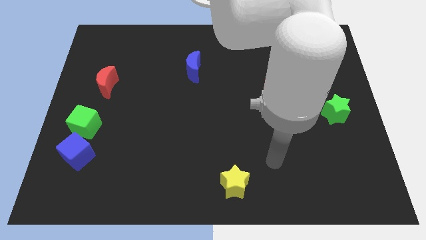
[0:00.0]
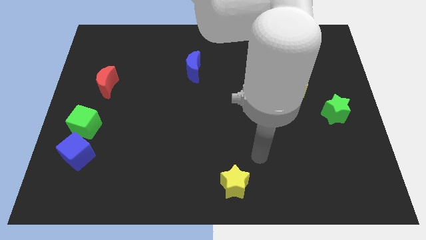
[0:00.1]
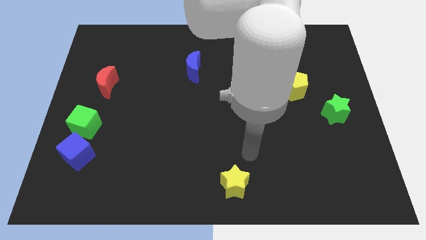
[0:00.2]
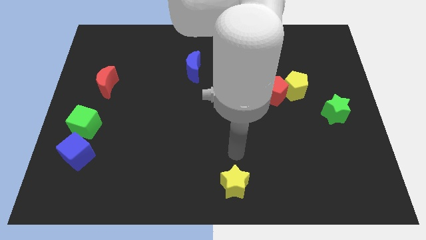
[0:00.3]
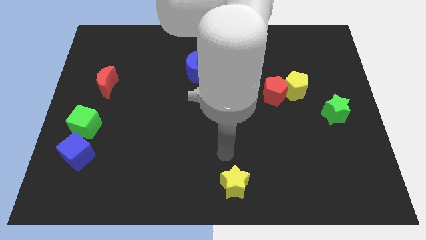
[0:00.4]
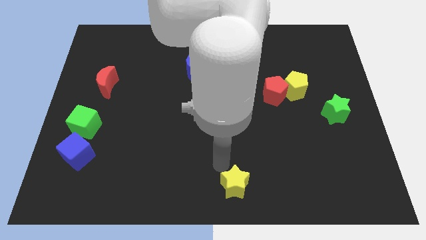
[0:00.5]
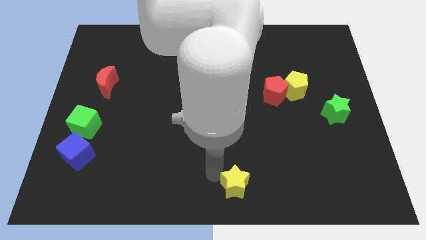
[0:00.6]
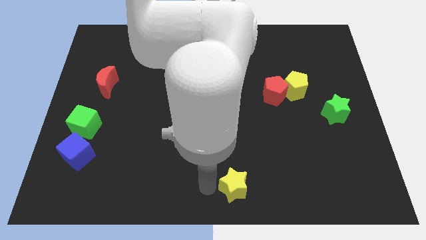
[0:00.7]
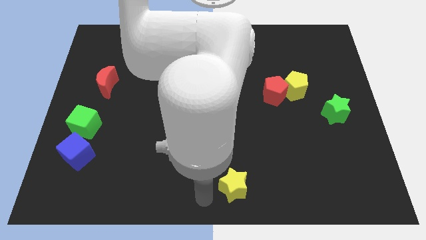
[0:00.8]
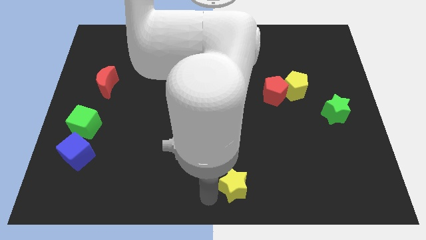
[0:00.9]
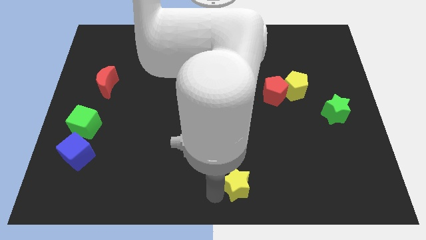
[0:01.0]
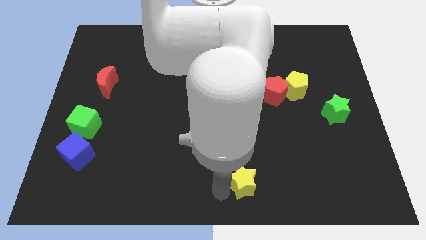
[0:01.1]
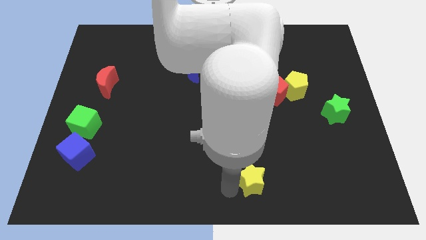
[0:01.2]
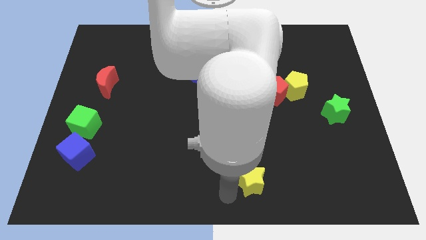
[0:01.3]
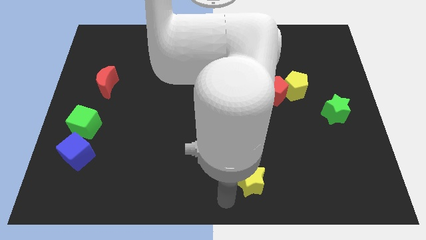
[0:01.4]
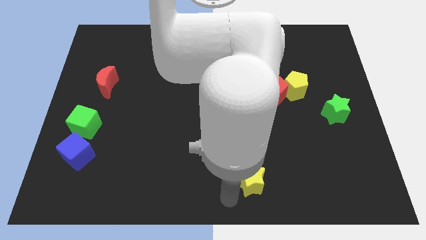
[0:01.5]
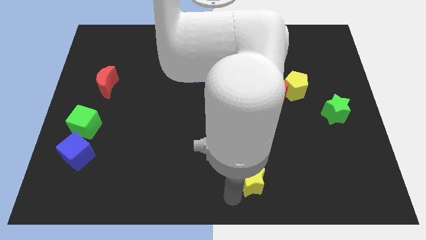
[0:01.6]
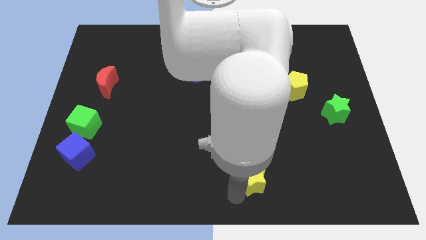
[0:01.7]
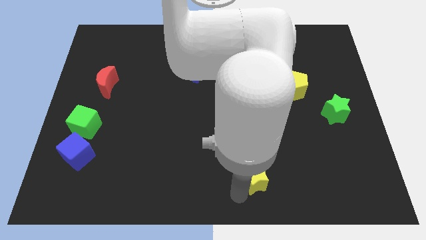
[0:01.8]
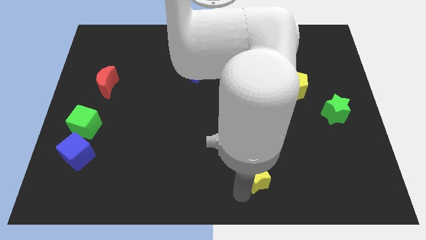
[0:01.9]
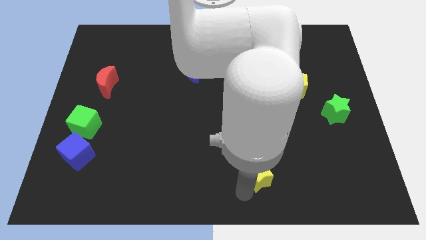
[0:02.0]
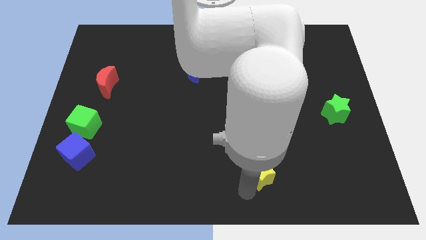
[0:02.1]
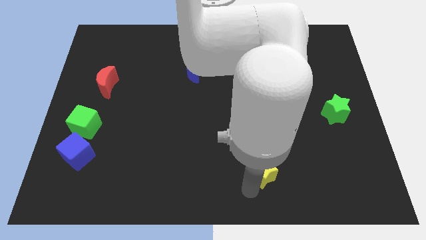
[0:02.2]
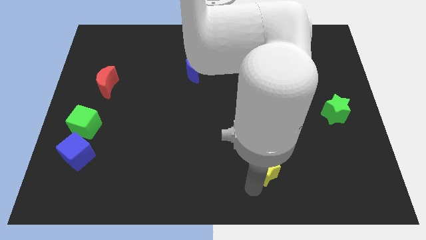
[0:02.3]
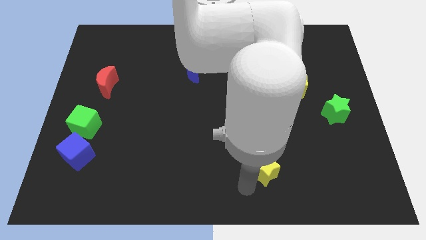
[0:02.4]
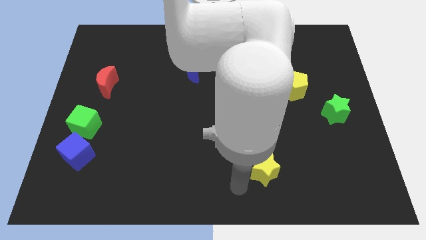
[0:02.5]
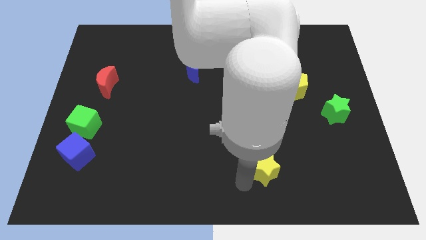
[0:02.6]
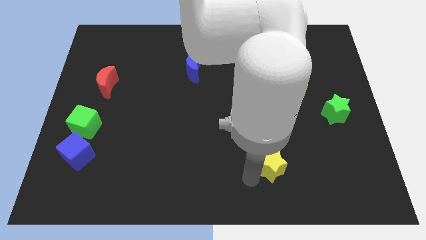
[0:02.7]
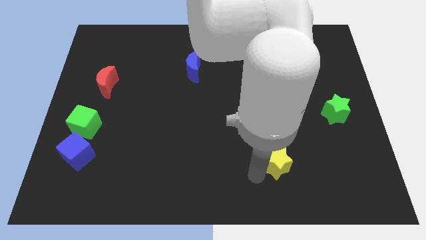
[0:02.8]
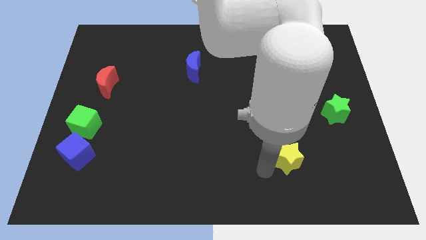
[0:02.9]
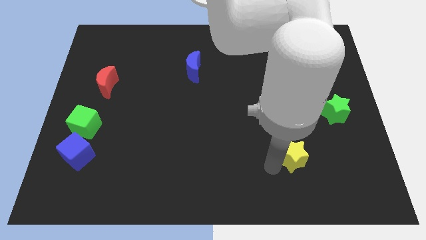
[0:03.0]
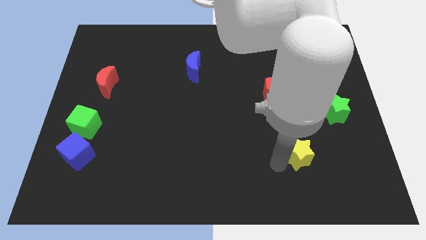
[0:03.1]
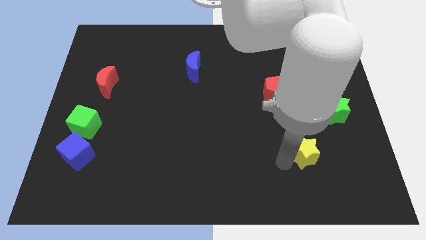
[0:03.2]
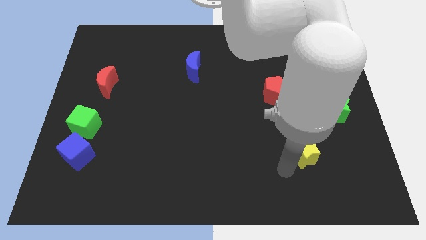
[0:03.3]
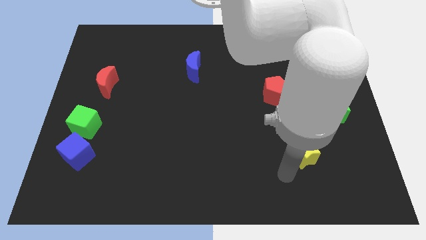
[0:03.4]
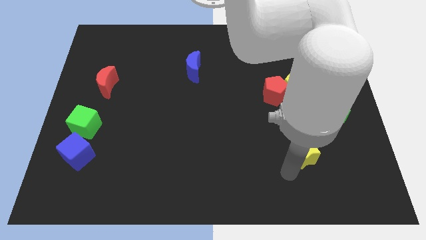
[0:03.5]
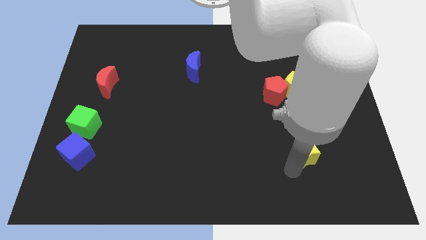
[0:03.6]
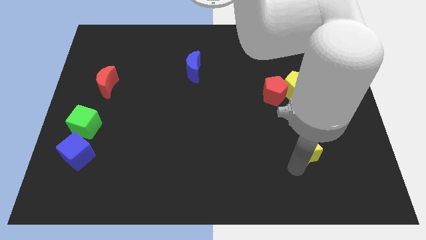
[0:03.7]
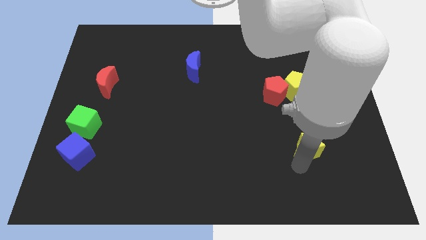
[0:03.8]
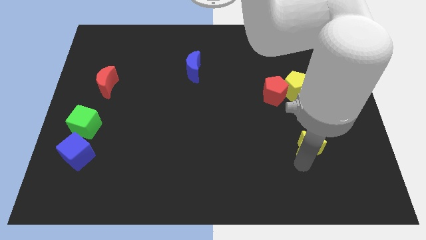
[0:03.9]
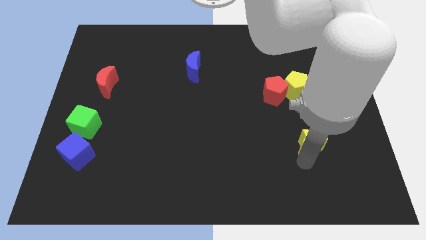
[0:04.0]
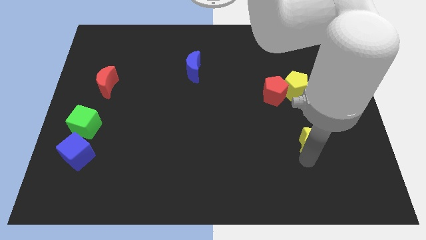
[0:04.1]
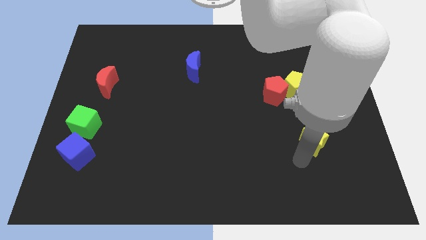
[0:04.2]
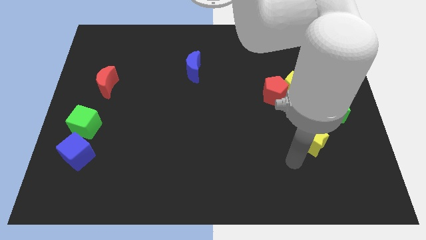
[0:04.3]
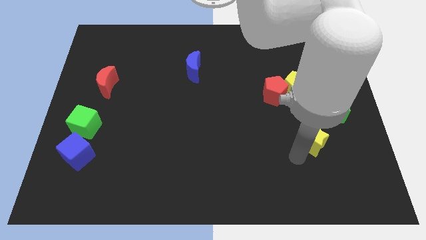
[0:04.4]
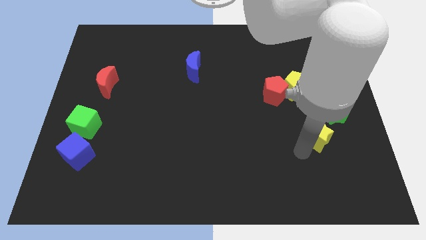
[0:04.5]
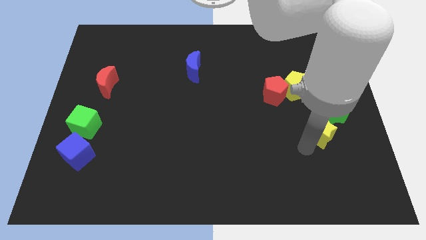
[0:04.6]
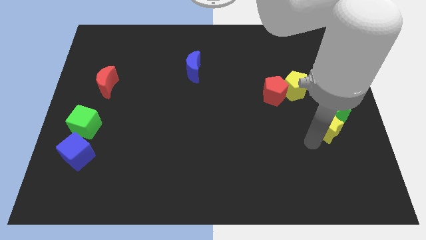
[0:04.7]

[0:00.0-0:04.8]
put the yellow star close to the green star

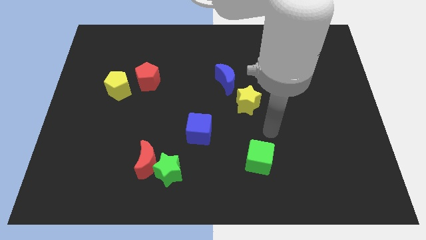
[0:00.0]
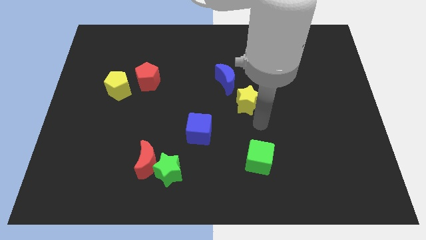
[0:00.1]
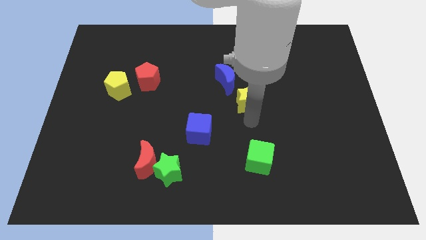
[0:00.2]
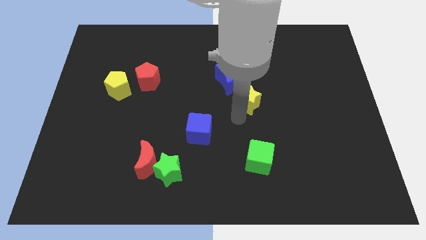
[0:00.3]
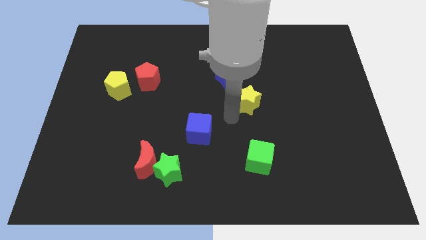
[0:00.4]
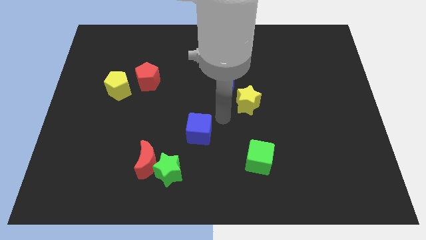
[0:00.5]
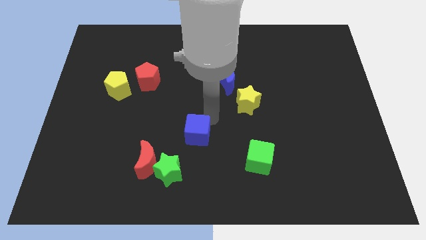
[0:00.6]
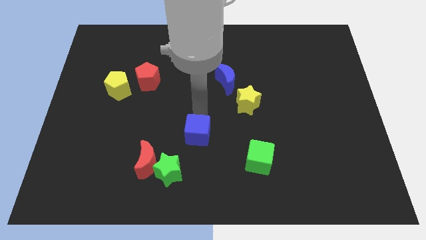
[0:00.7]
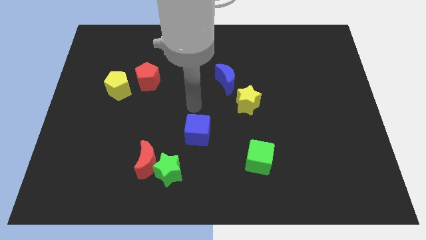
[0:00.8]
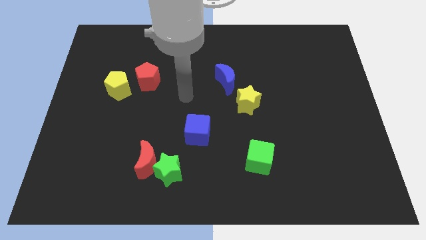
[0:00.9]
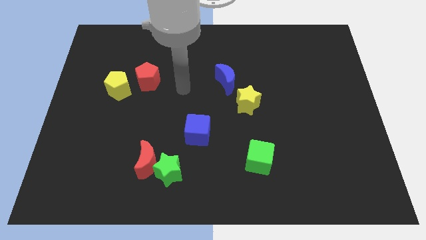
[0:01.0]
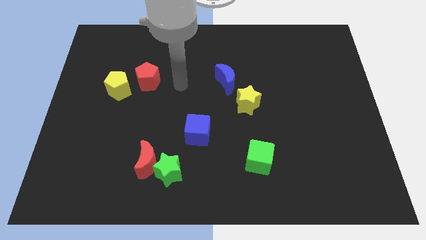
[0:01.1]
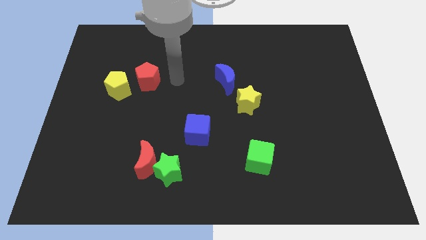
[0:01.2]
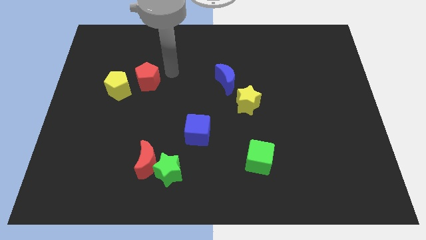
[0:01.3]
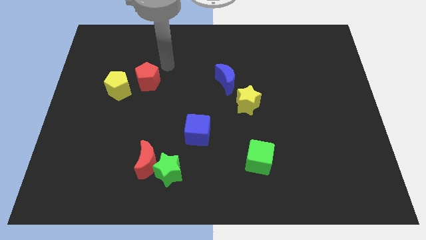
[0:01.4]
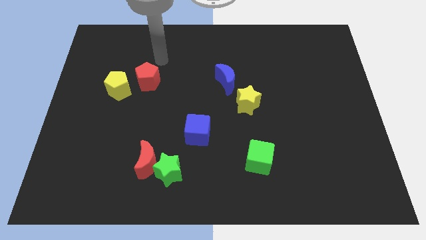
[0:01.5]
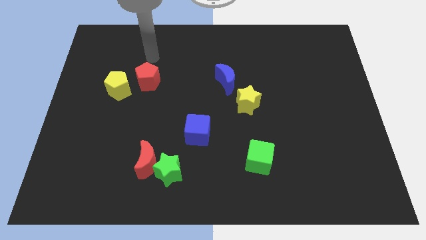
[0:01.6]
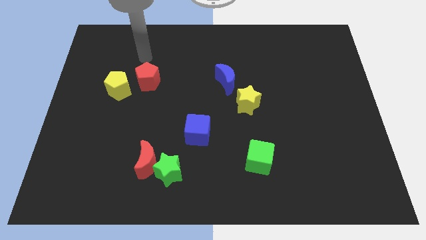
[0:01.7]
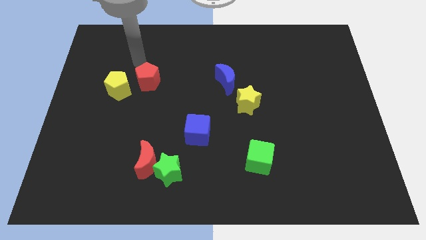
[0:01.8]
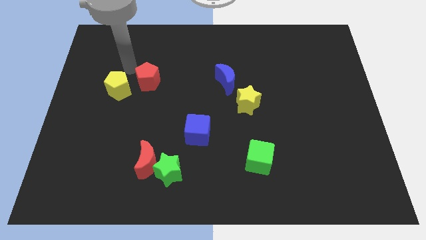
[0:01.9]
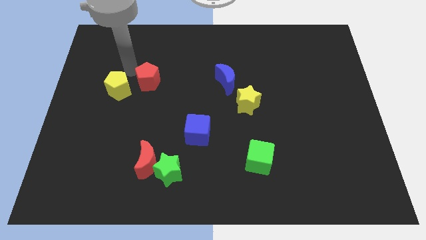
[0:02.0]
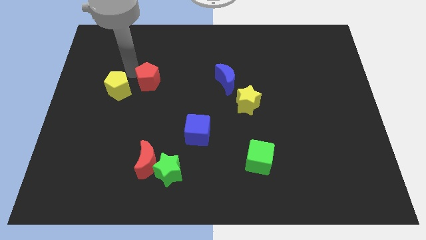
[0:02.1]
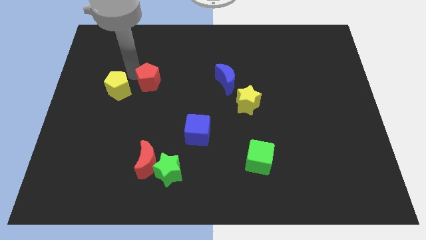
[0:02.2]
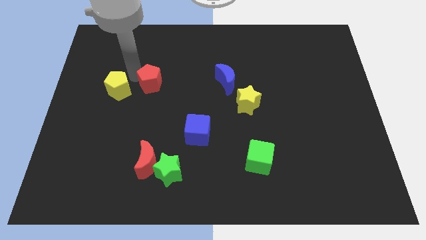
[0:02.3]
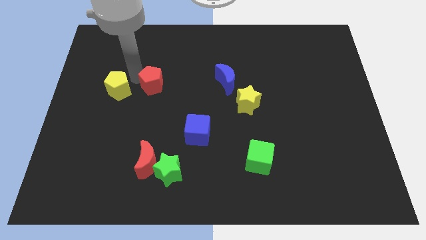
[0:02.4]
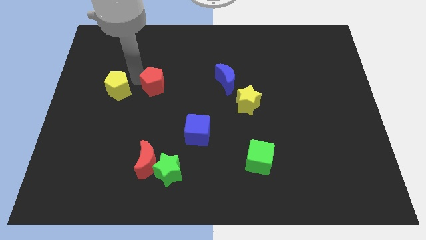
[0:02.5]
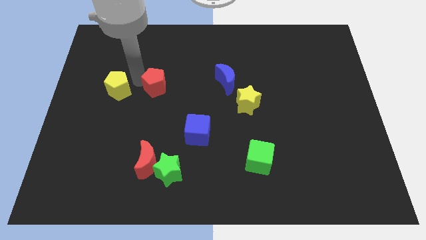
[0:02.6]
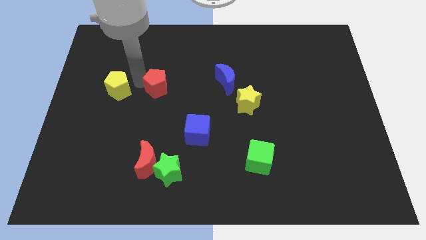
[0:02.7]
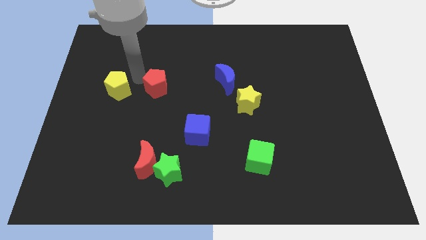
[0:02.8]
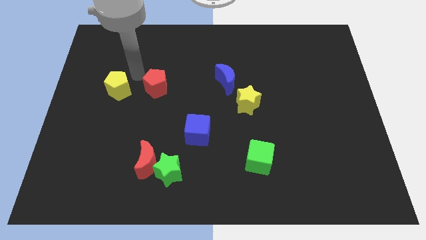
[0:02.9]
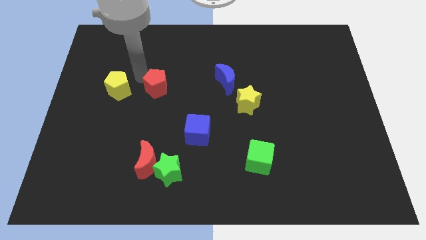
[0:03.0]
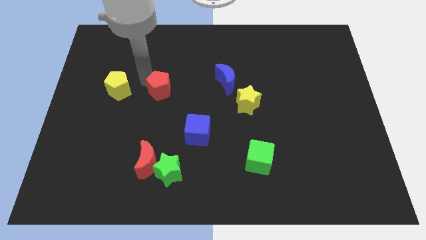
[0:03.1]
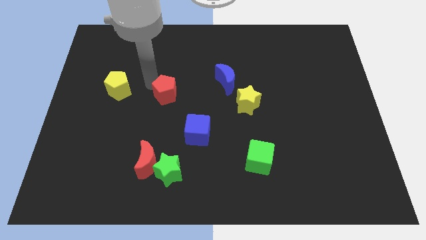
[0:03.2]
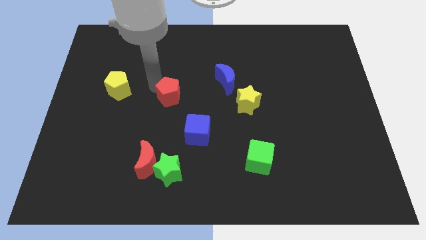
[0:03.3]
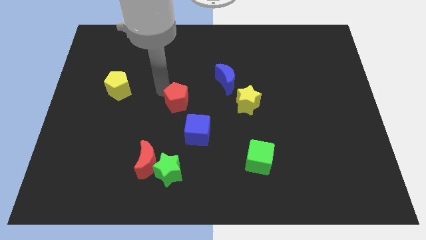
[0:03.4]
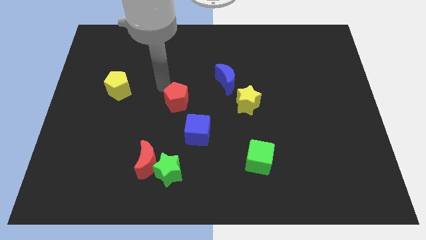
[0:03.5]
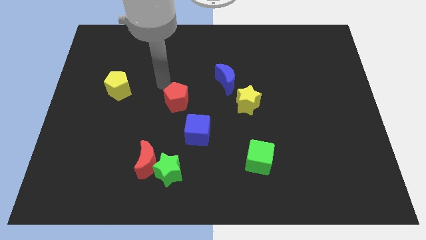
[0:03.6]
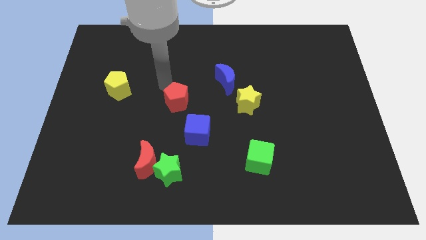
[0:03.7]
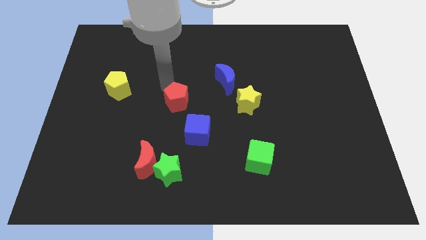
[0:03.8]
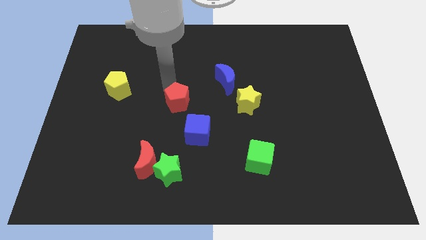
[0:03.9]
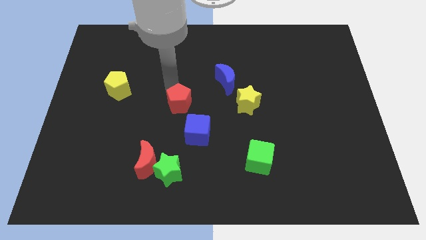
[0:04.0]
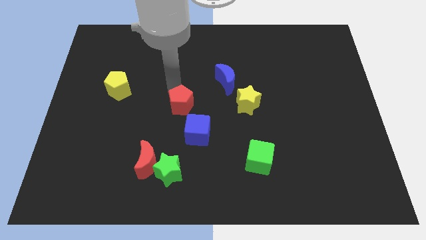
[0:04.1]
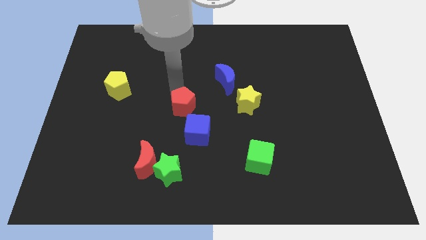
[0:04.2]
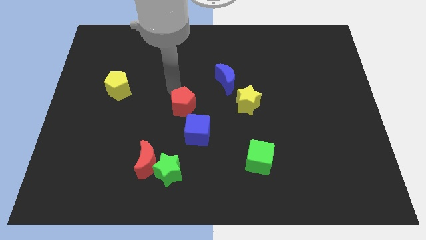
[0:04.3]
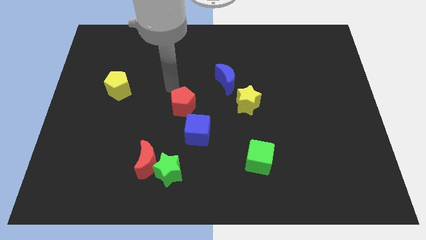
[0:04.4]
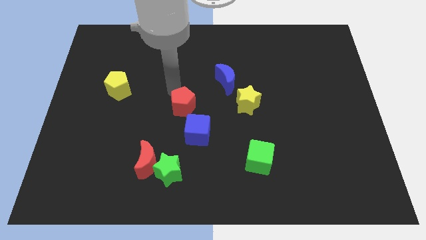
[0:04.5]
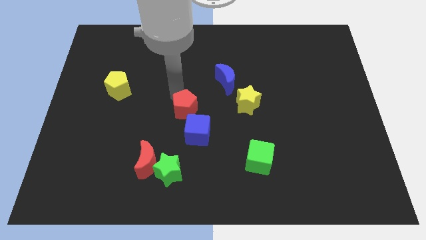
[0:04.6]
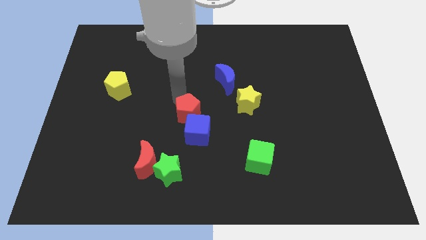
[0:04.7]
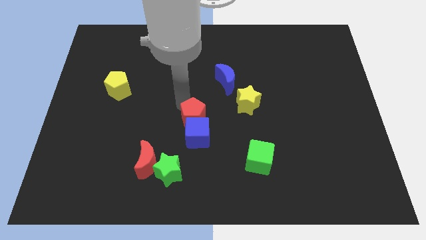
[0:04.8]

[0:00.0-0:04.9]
slide the red pentagon towards the blue cube
